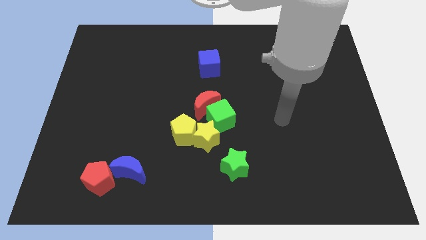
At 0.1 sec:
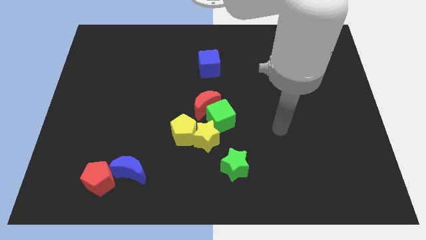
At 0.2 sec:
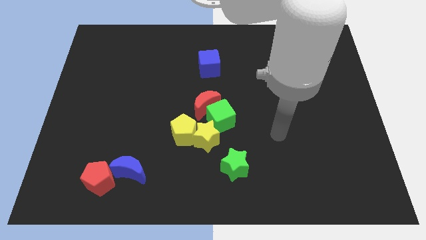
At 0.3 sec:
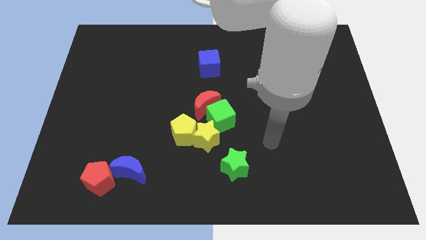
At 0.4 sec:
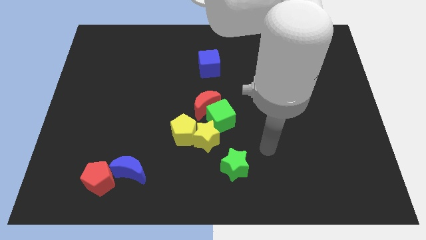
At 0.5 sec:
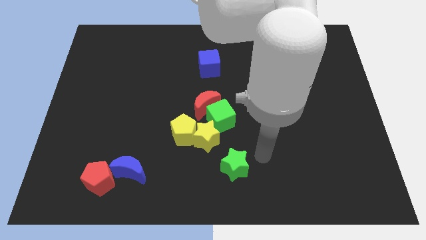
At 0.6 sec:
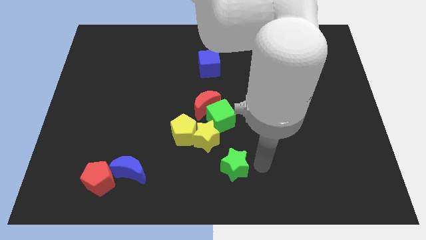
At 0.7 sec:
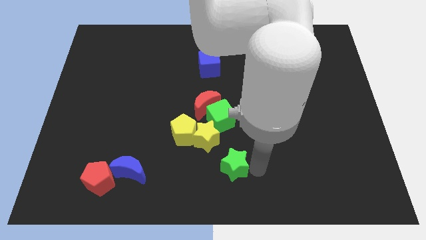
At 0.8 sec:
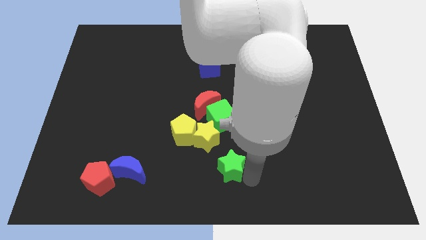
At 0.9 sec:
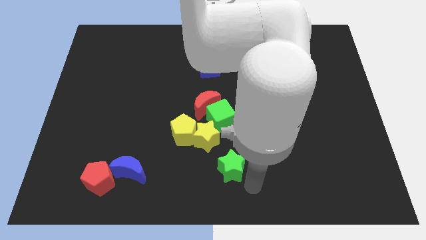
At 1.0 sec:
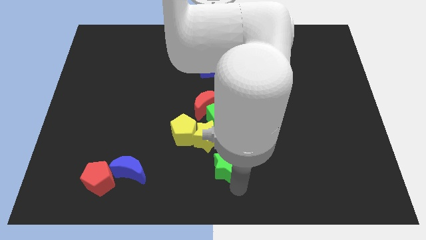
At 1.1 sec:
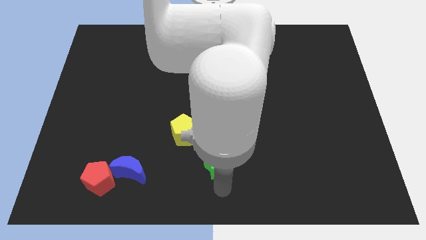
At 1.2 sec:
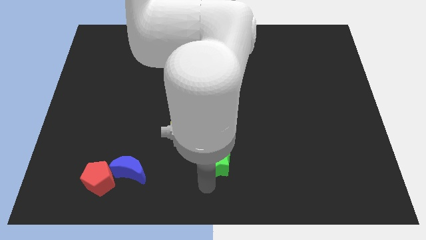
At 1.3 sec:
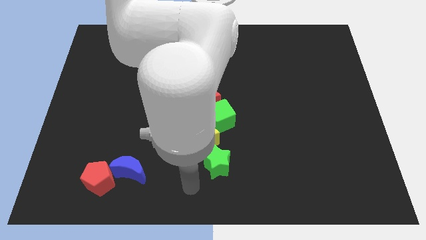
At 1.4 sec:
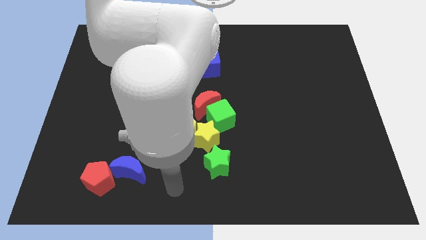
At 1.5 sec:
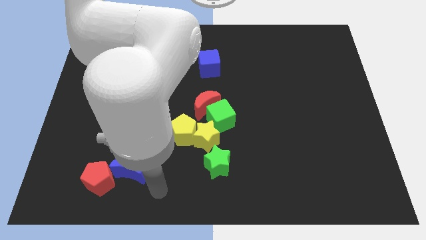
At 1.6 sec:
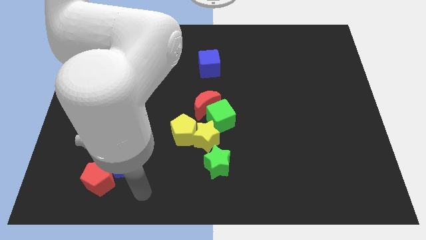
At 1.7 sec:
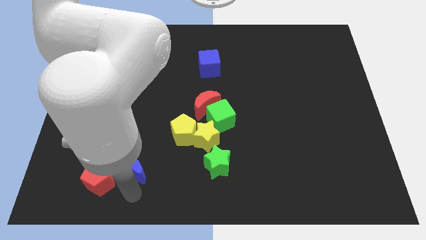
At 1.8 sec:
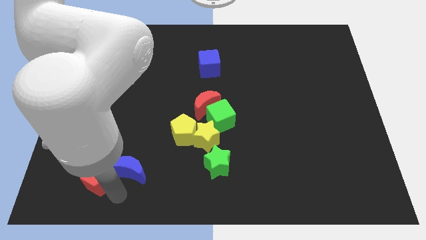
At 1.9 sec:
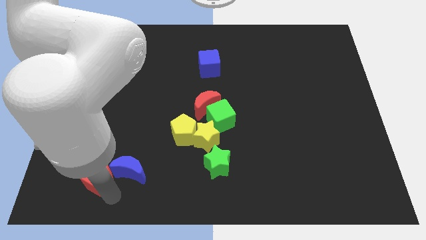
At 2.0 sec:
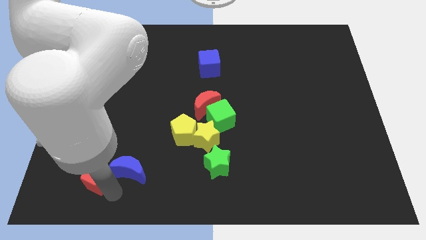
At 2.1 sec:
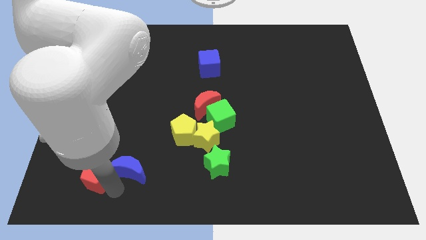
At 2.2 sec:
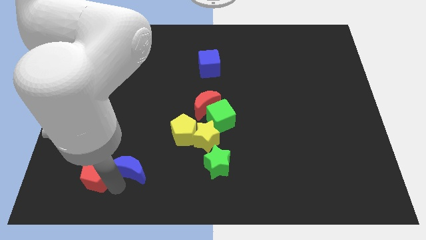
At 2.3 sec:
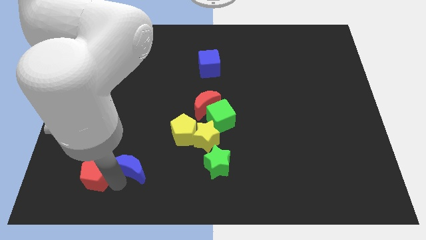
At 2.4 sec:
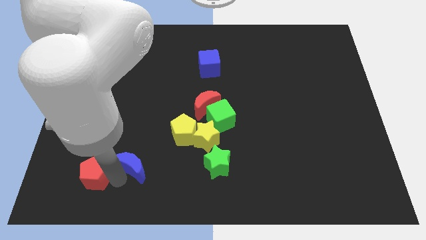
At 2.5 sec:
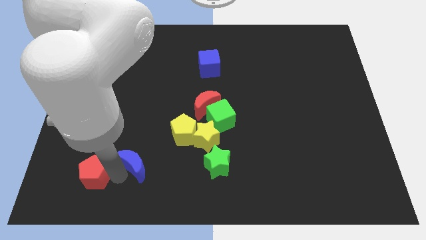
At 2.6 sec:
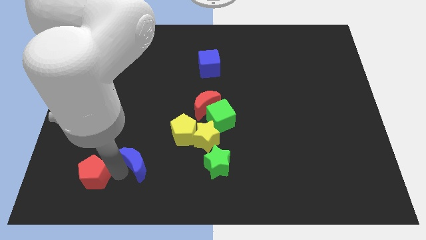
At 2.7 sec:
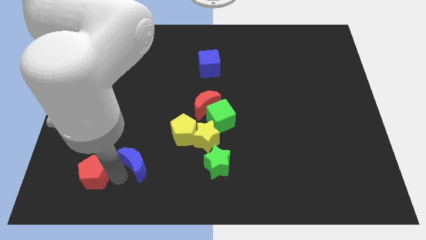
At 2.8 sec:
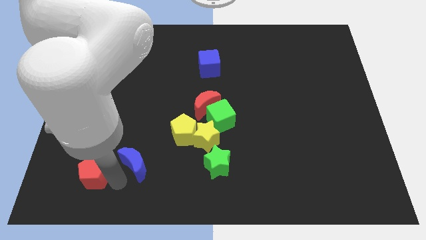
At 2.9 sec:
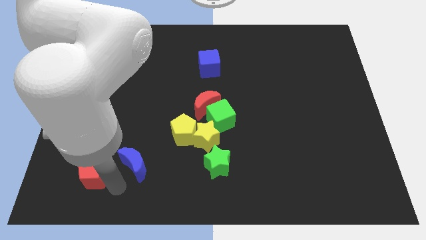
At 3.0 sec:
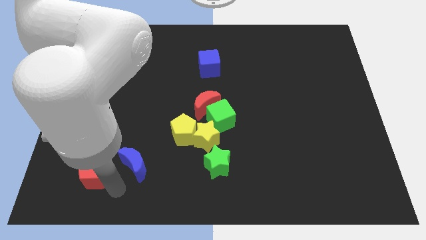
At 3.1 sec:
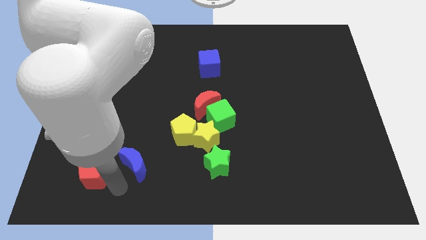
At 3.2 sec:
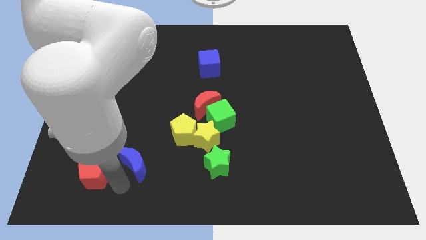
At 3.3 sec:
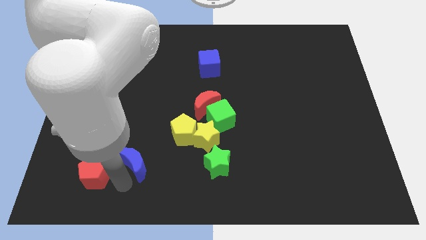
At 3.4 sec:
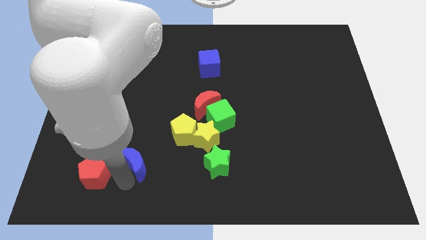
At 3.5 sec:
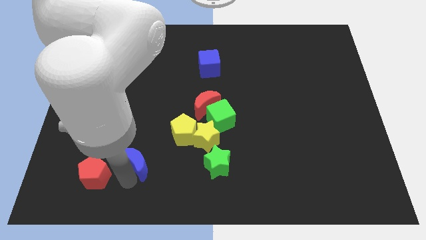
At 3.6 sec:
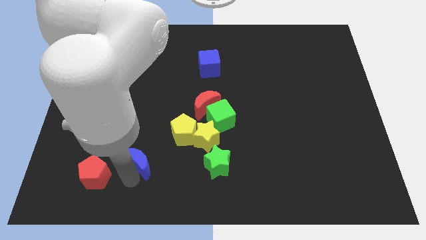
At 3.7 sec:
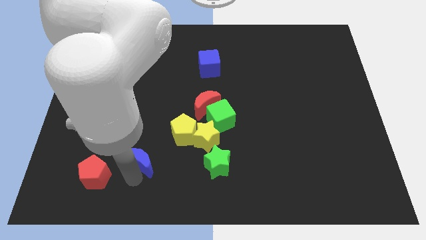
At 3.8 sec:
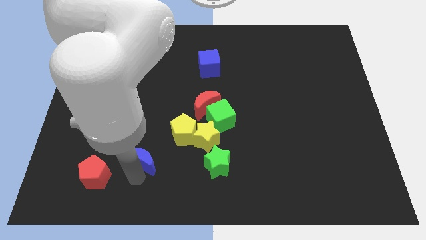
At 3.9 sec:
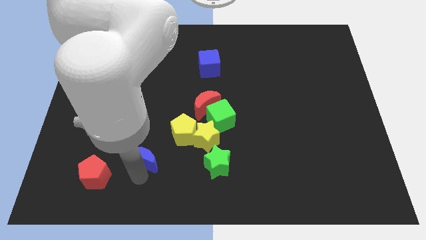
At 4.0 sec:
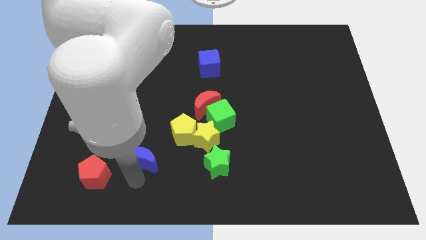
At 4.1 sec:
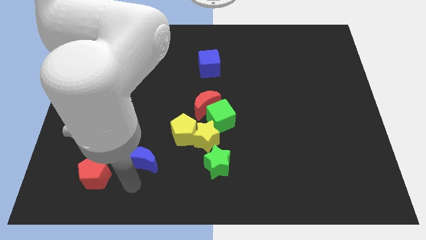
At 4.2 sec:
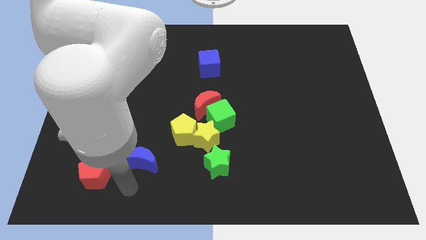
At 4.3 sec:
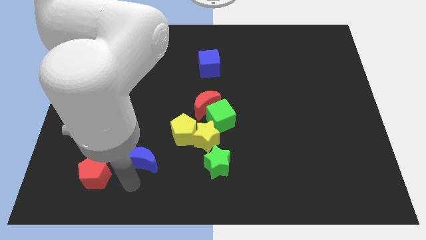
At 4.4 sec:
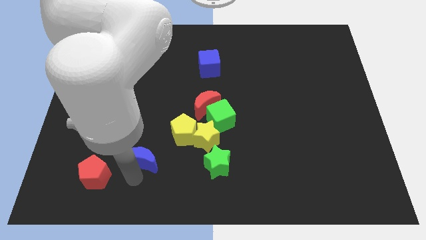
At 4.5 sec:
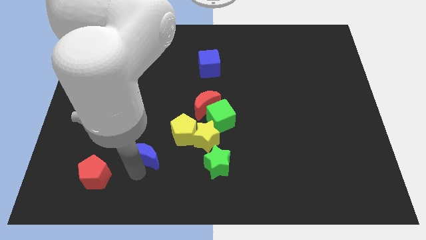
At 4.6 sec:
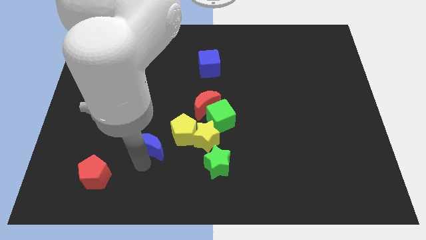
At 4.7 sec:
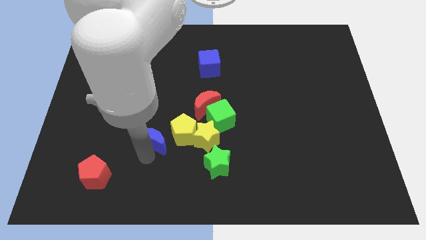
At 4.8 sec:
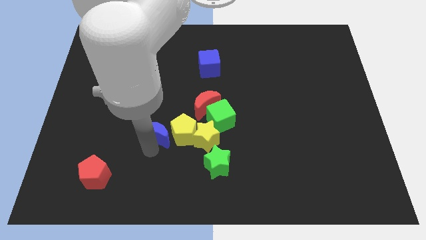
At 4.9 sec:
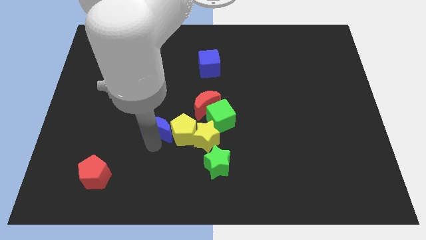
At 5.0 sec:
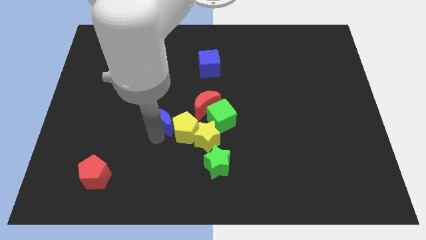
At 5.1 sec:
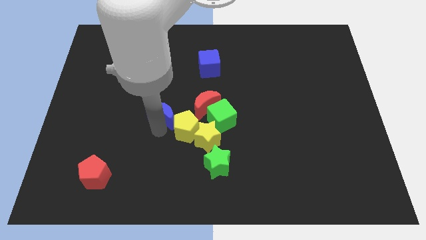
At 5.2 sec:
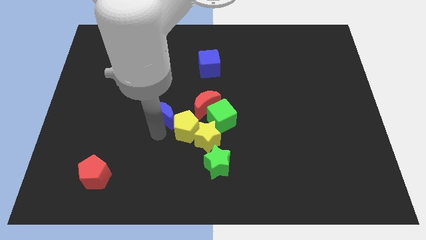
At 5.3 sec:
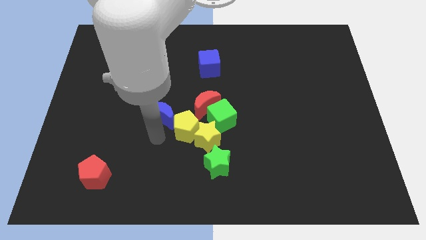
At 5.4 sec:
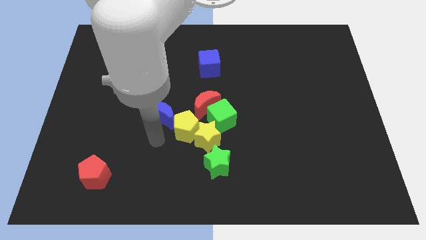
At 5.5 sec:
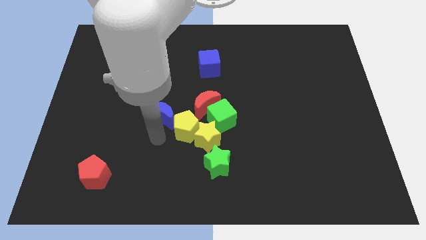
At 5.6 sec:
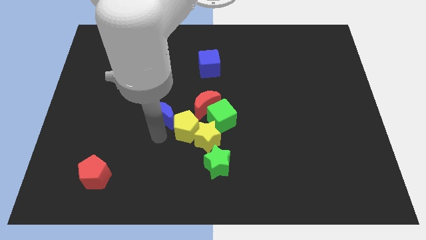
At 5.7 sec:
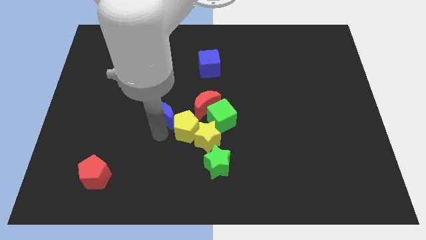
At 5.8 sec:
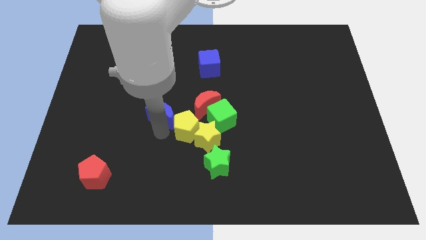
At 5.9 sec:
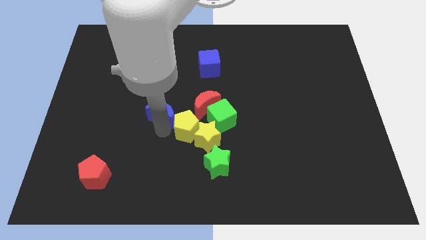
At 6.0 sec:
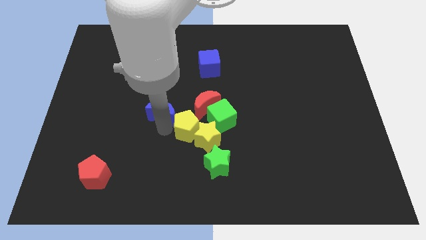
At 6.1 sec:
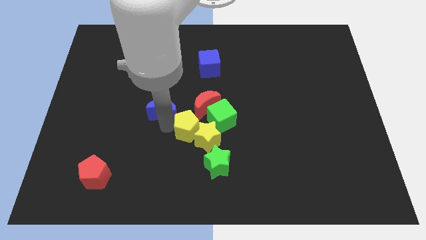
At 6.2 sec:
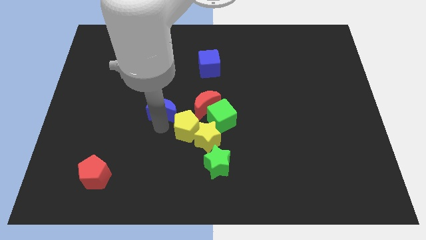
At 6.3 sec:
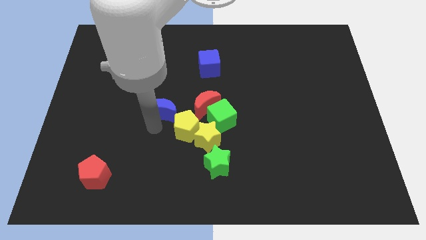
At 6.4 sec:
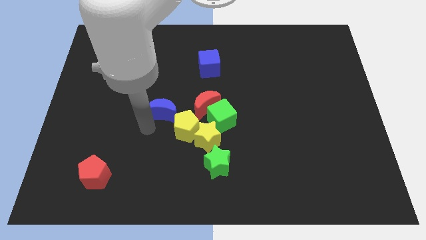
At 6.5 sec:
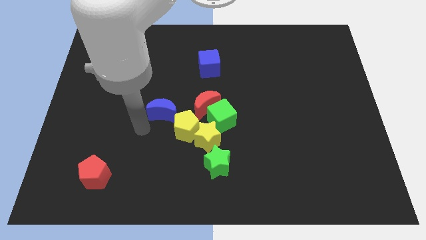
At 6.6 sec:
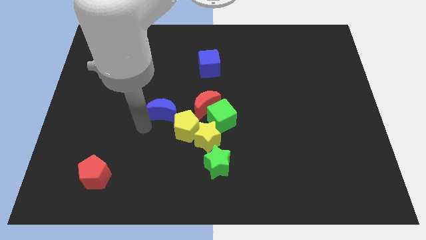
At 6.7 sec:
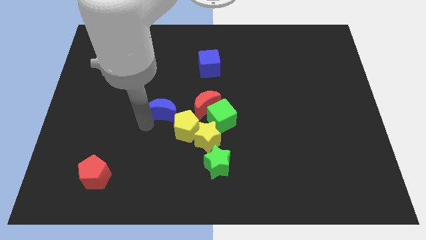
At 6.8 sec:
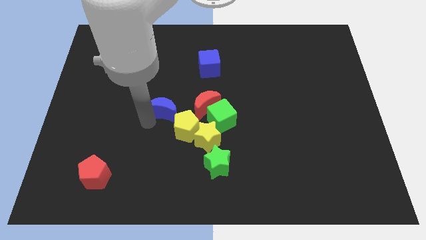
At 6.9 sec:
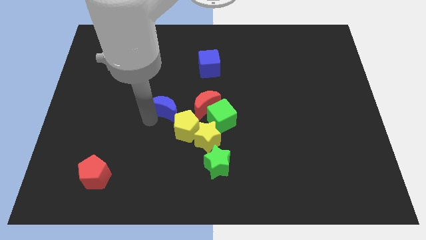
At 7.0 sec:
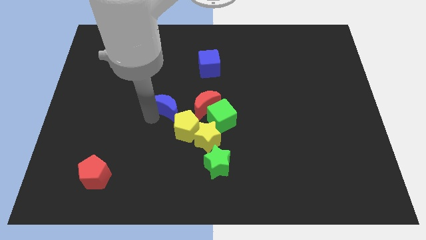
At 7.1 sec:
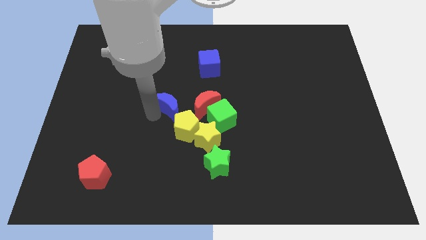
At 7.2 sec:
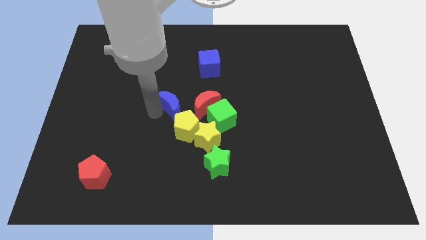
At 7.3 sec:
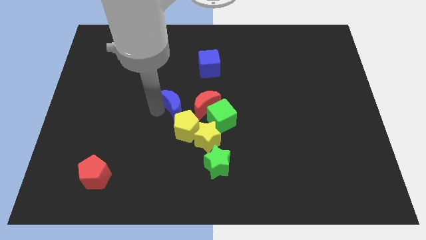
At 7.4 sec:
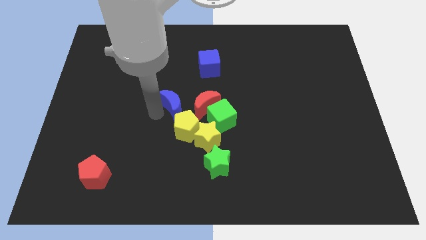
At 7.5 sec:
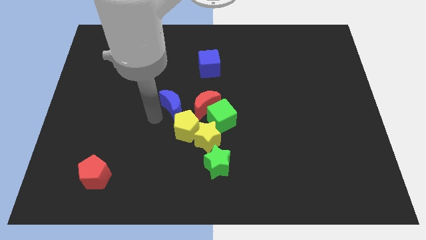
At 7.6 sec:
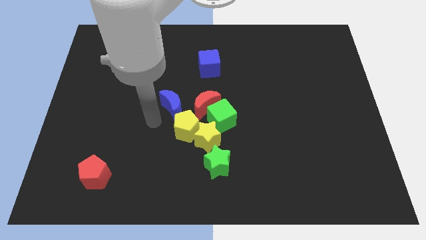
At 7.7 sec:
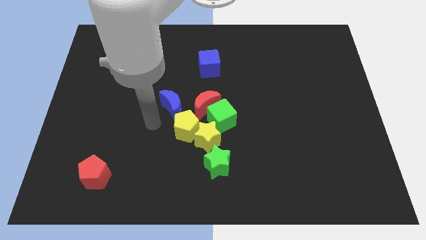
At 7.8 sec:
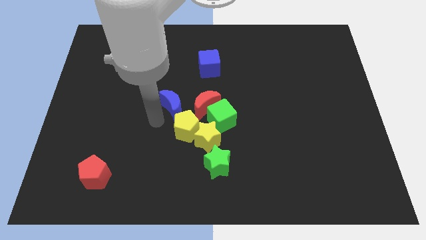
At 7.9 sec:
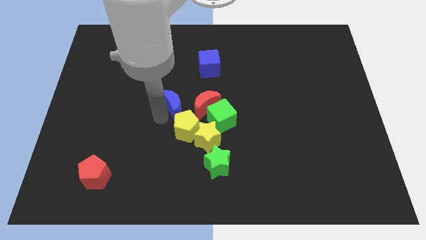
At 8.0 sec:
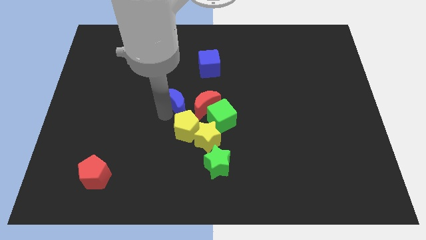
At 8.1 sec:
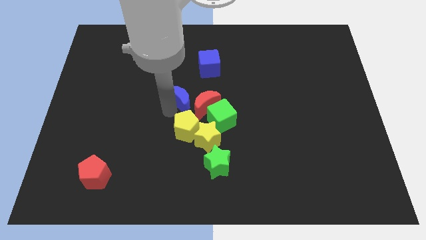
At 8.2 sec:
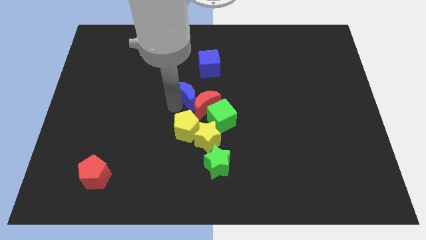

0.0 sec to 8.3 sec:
slide the blue moon up and then to the right
